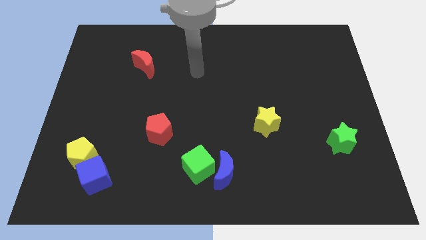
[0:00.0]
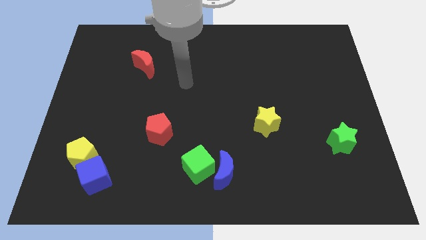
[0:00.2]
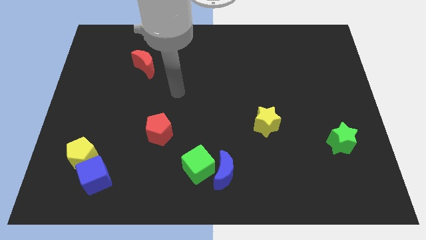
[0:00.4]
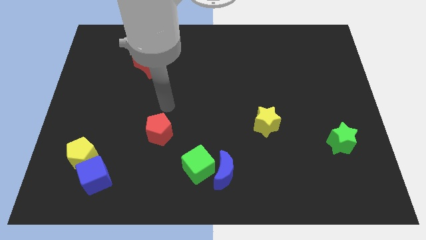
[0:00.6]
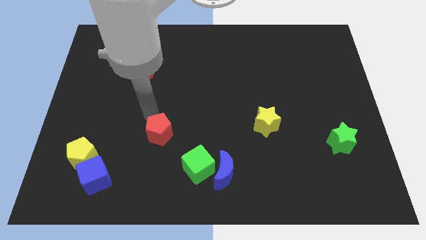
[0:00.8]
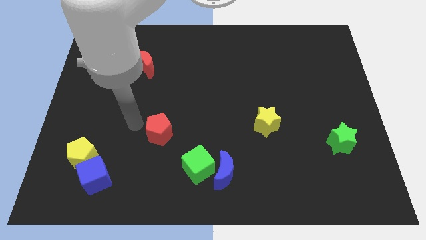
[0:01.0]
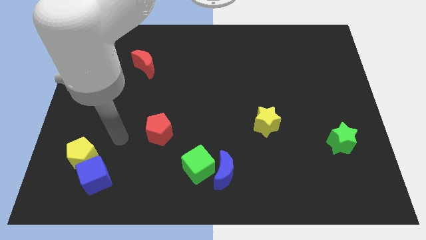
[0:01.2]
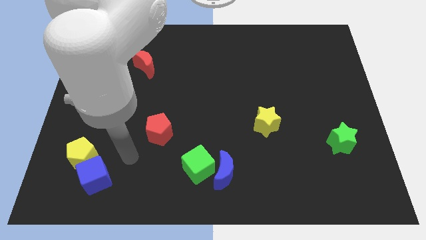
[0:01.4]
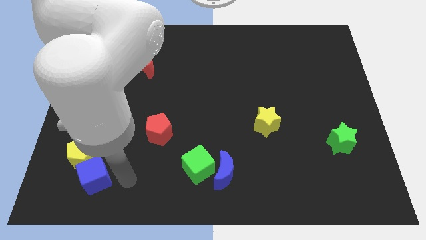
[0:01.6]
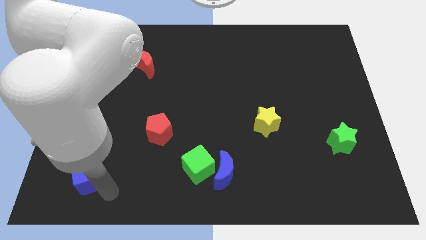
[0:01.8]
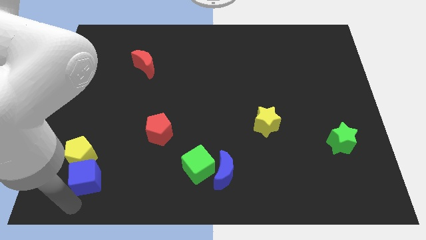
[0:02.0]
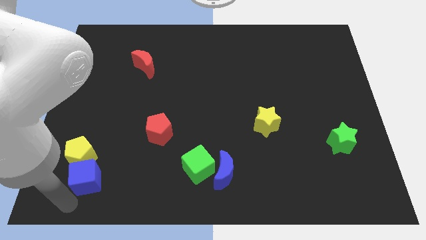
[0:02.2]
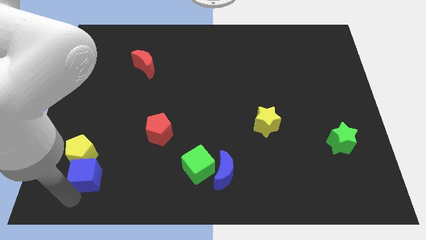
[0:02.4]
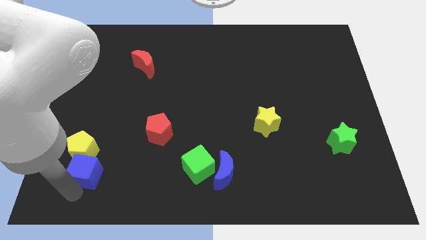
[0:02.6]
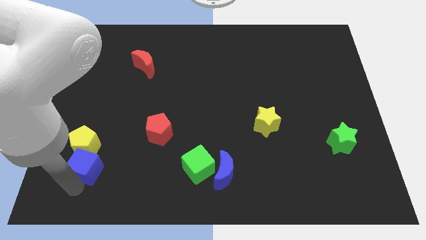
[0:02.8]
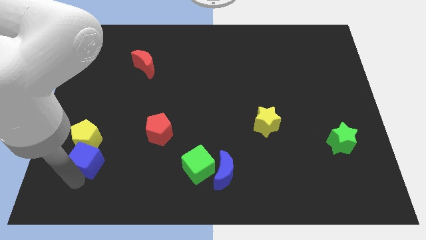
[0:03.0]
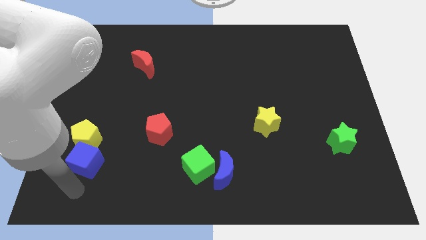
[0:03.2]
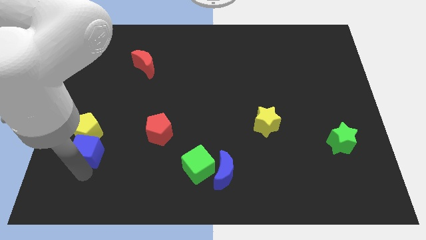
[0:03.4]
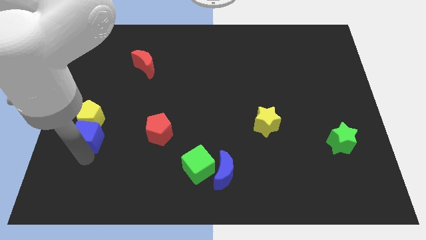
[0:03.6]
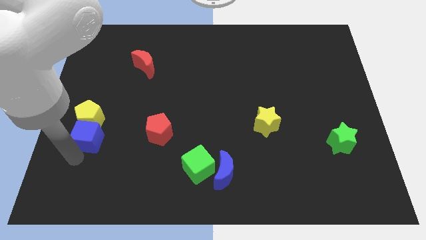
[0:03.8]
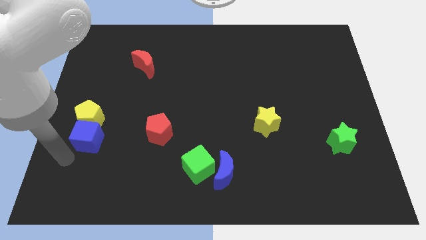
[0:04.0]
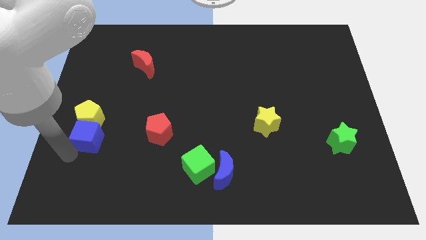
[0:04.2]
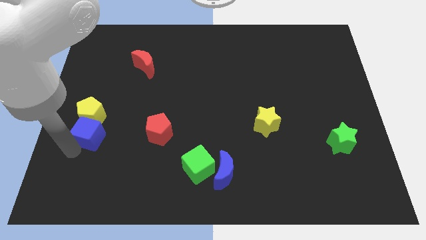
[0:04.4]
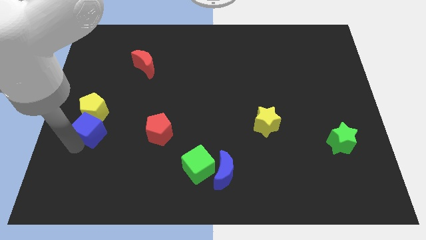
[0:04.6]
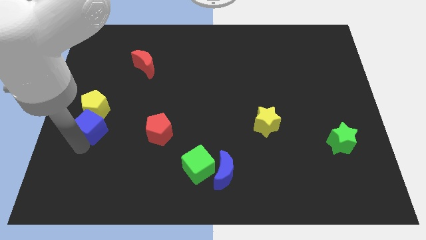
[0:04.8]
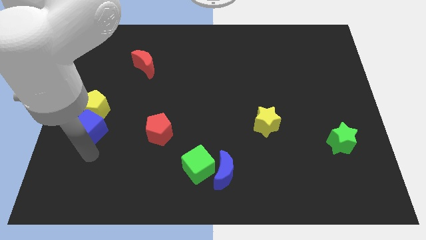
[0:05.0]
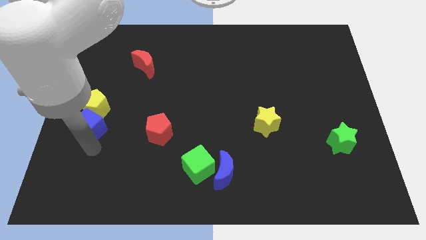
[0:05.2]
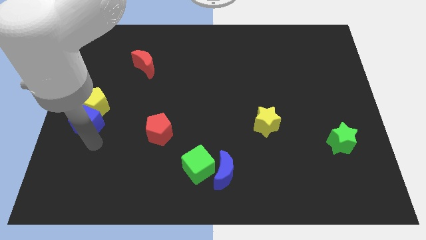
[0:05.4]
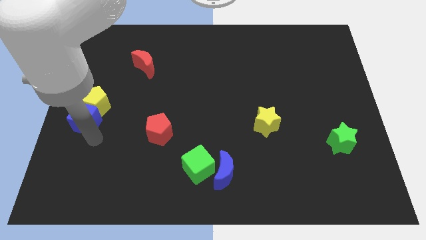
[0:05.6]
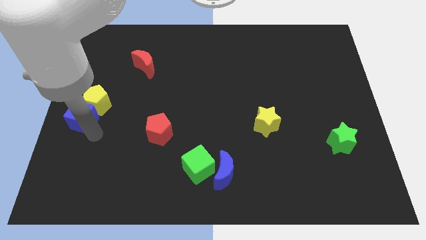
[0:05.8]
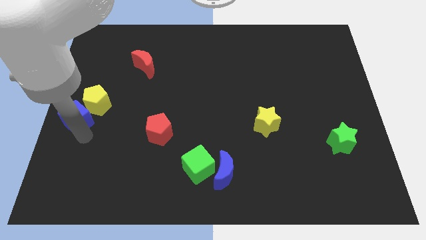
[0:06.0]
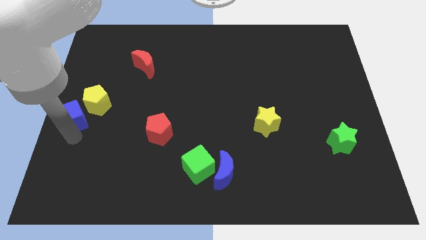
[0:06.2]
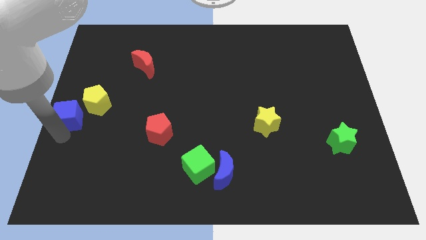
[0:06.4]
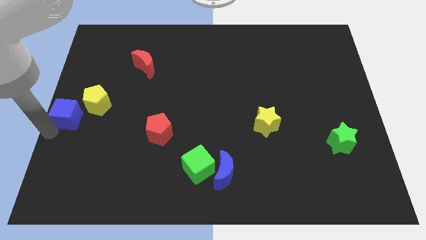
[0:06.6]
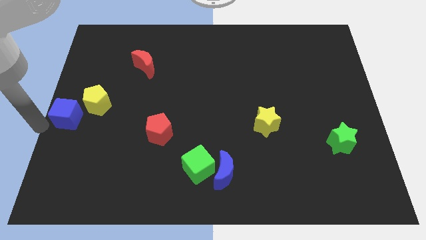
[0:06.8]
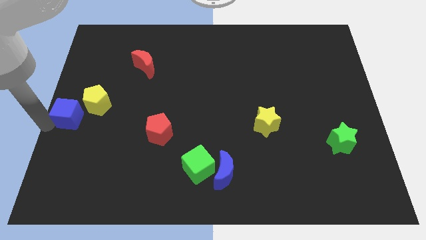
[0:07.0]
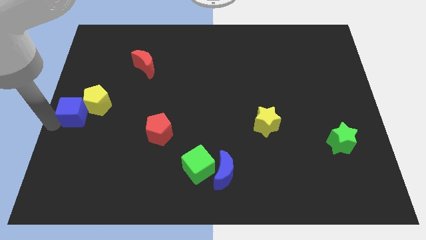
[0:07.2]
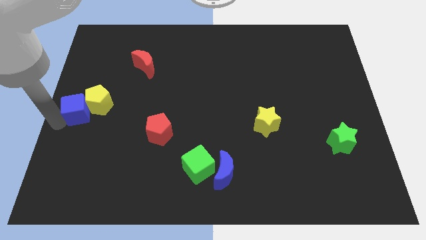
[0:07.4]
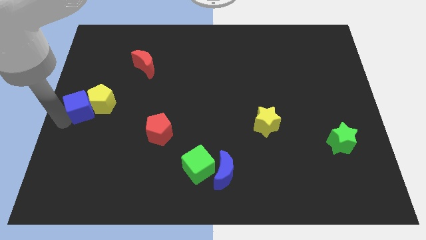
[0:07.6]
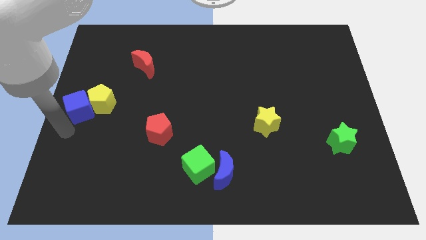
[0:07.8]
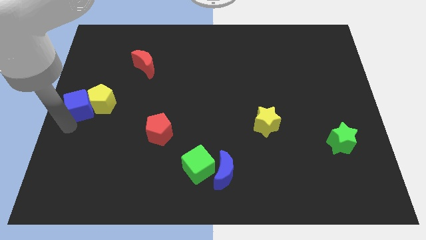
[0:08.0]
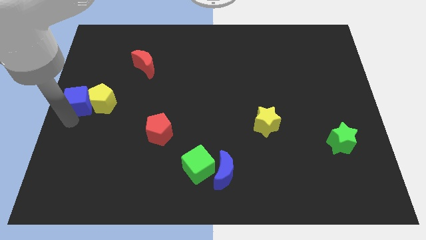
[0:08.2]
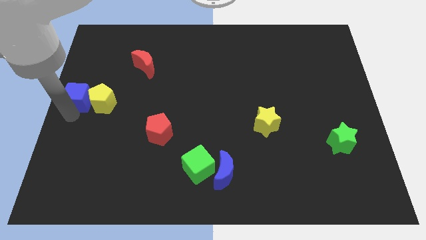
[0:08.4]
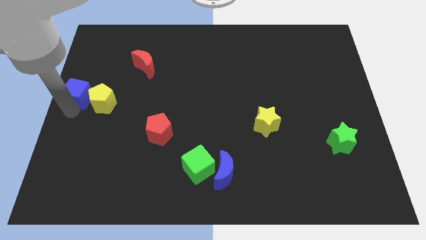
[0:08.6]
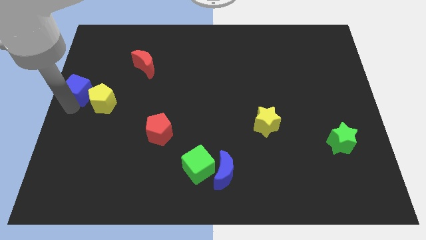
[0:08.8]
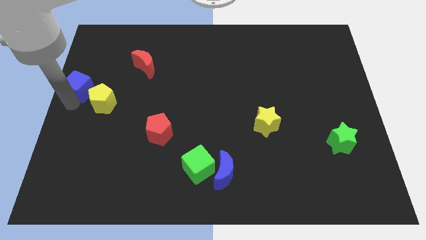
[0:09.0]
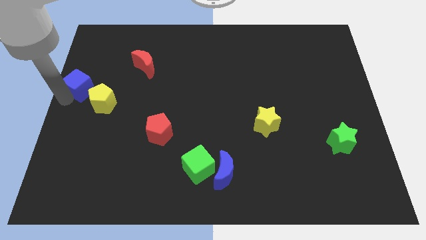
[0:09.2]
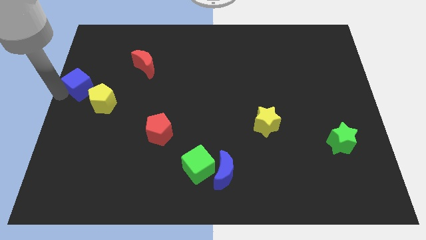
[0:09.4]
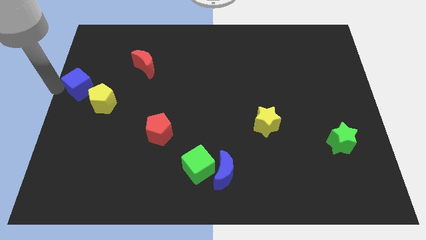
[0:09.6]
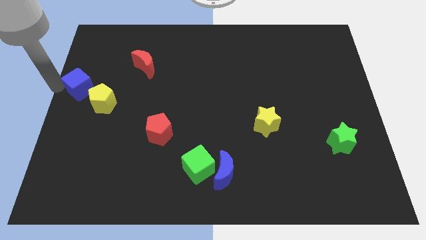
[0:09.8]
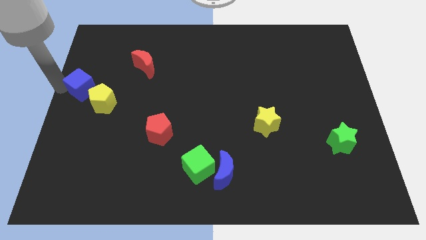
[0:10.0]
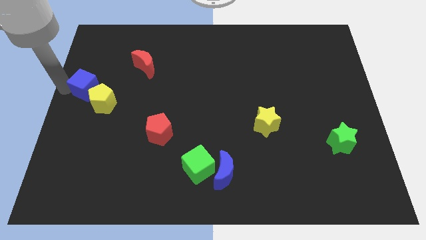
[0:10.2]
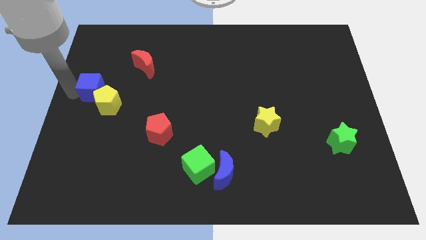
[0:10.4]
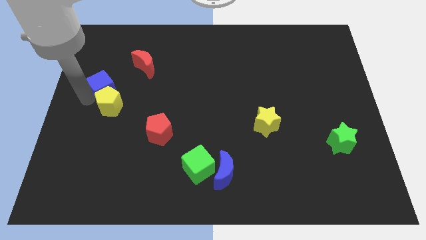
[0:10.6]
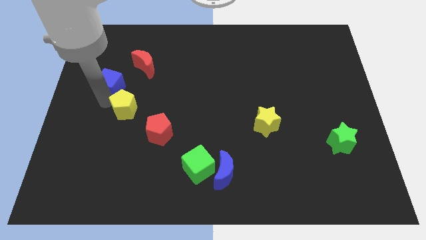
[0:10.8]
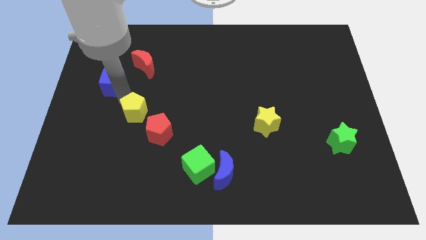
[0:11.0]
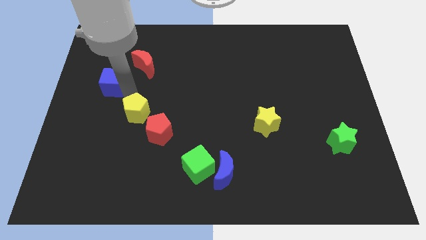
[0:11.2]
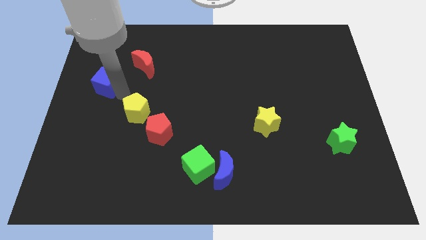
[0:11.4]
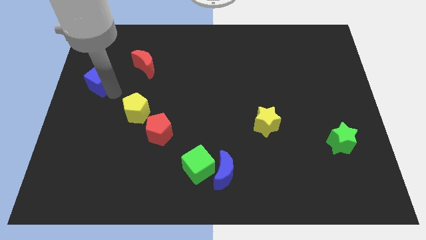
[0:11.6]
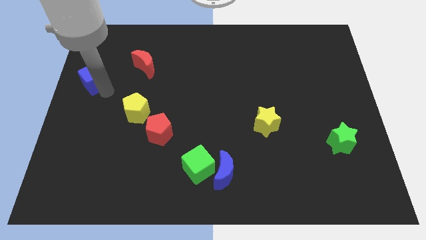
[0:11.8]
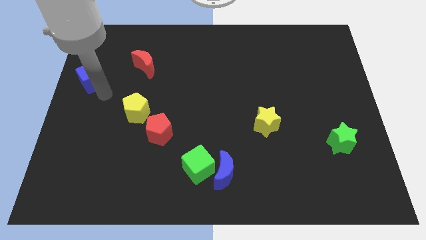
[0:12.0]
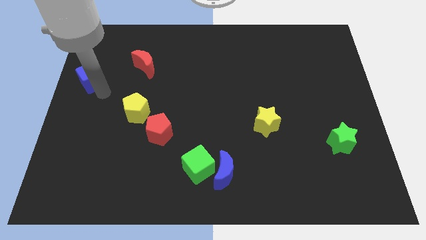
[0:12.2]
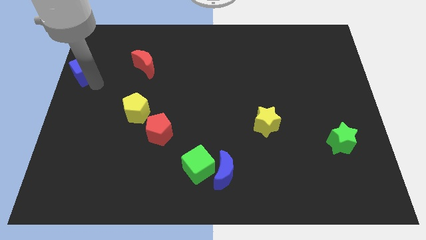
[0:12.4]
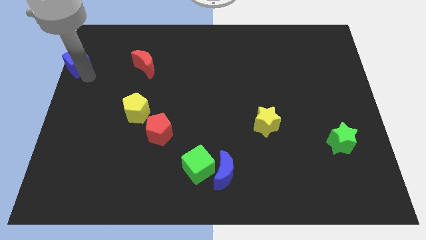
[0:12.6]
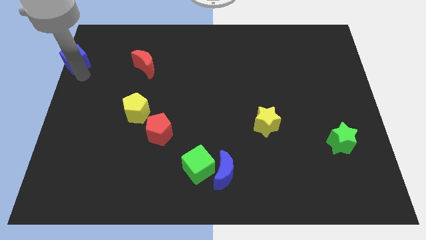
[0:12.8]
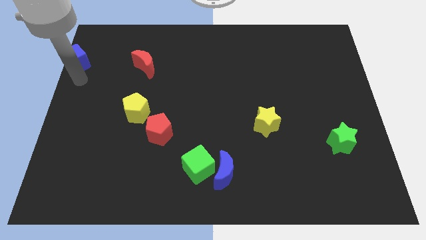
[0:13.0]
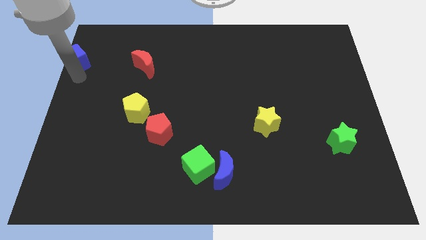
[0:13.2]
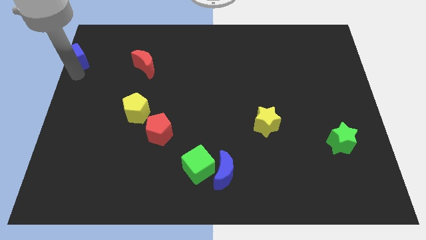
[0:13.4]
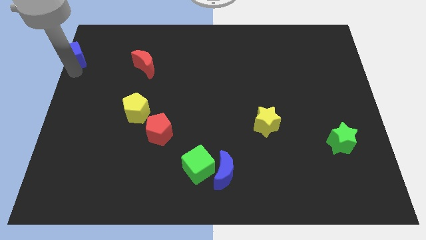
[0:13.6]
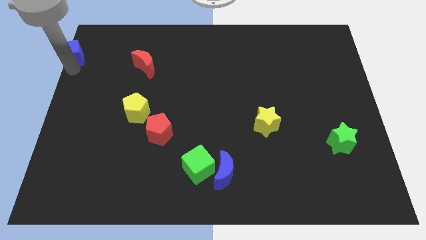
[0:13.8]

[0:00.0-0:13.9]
slide the blue cube to the top left
